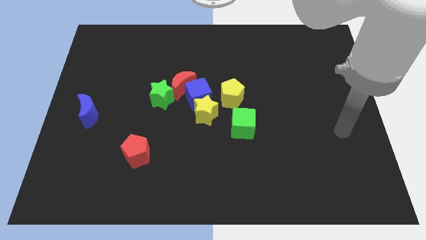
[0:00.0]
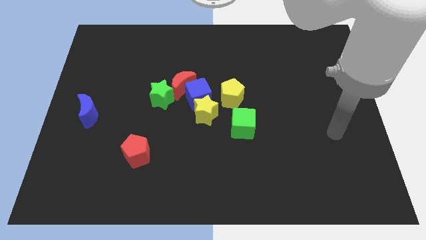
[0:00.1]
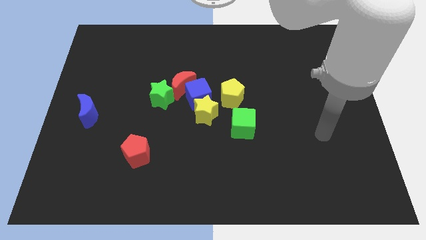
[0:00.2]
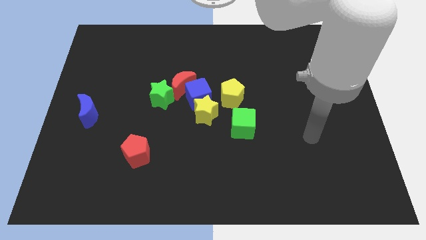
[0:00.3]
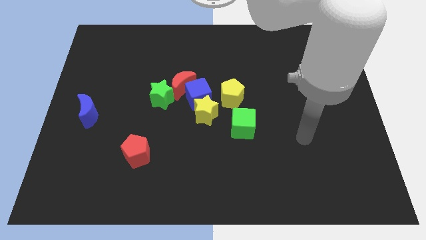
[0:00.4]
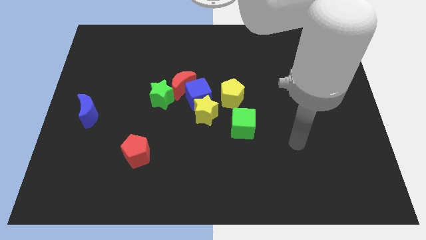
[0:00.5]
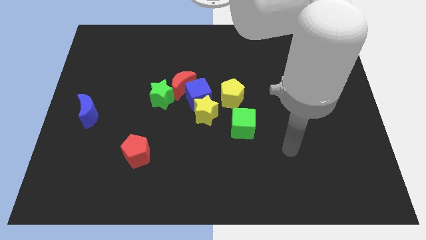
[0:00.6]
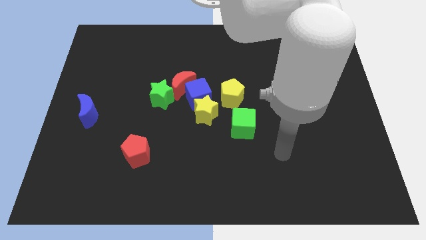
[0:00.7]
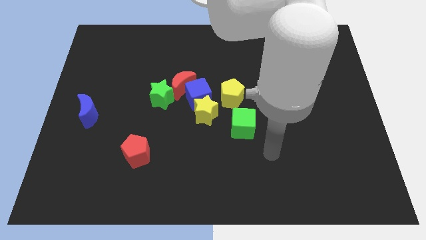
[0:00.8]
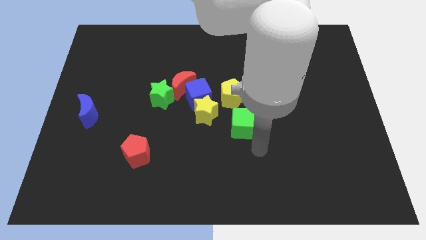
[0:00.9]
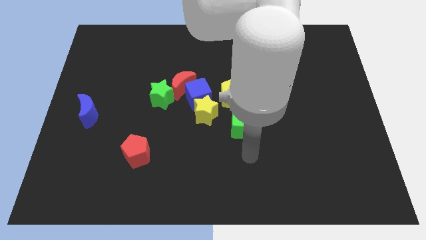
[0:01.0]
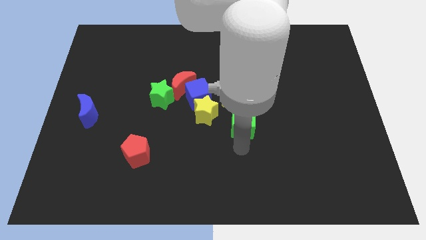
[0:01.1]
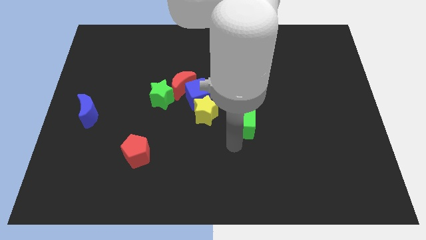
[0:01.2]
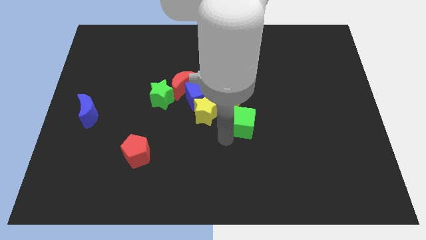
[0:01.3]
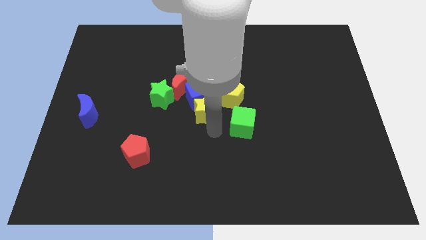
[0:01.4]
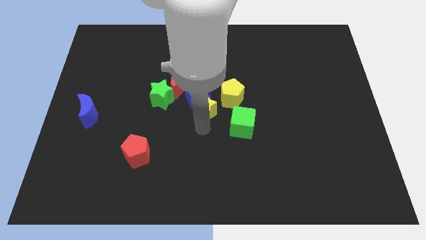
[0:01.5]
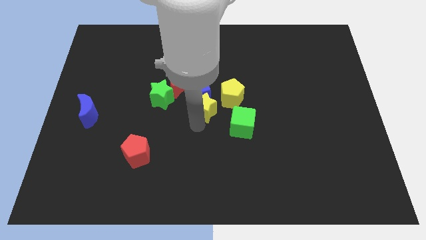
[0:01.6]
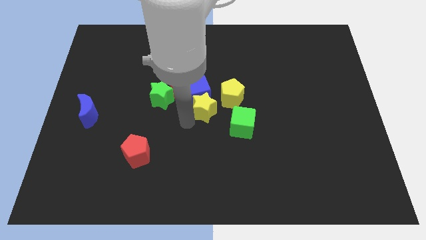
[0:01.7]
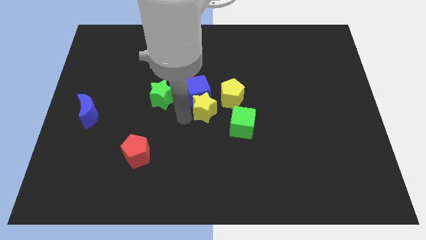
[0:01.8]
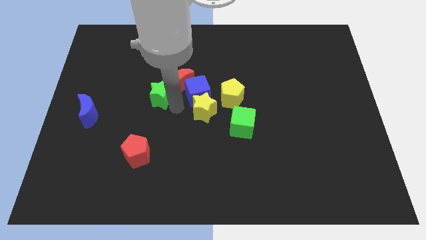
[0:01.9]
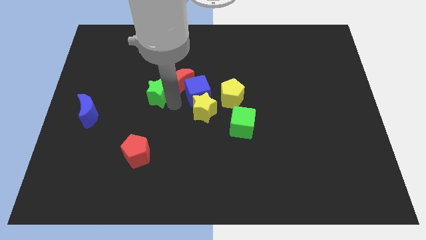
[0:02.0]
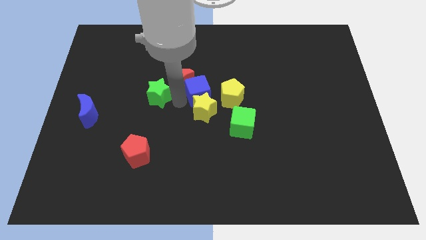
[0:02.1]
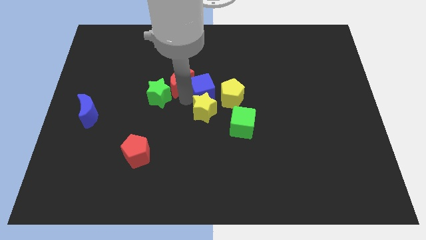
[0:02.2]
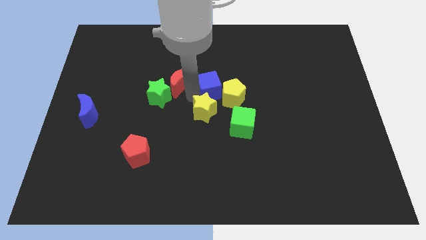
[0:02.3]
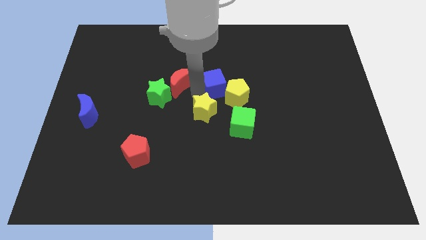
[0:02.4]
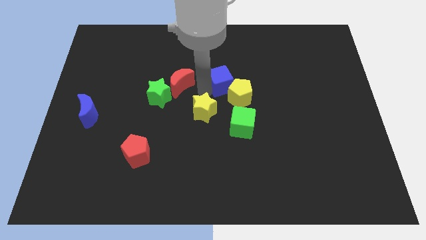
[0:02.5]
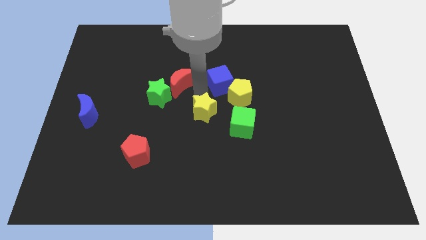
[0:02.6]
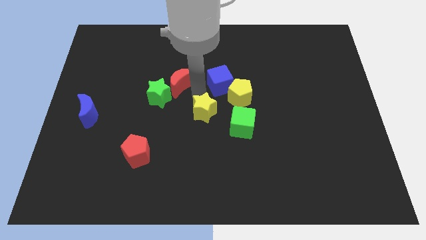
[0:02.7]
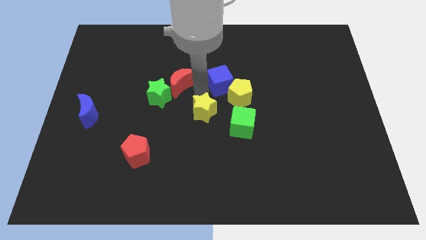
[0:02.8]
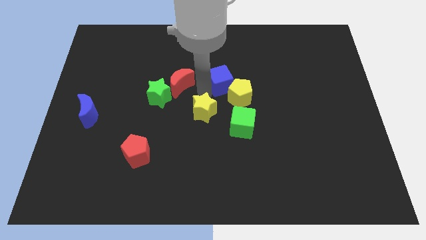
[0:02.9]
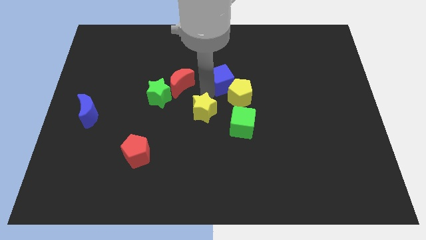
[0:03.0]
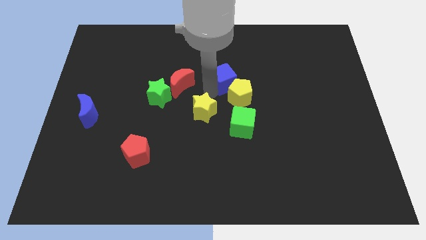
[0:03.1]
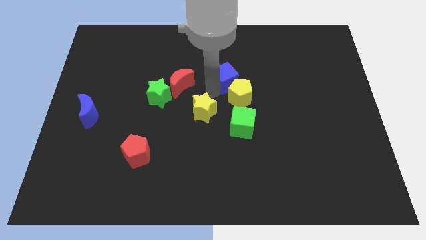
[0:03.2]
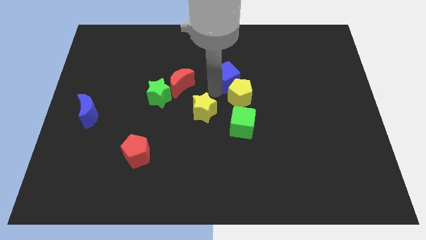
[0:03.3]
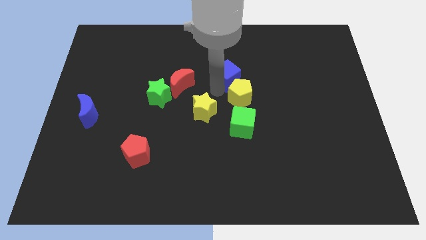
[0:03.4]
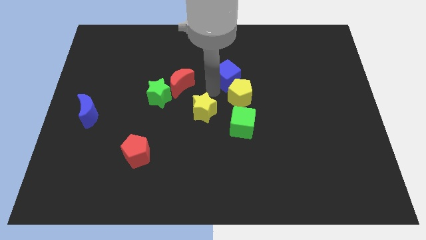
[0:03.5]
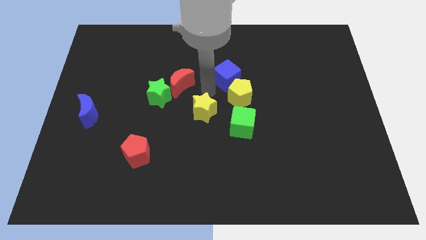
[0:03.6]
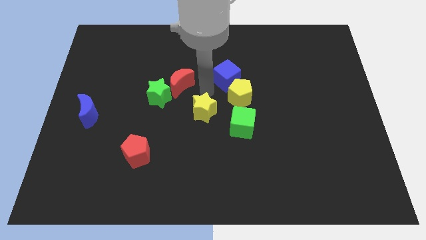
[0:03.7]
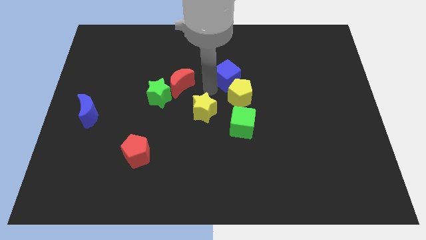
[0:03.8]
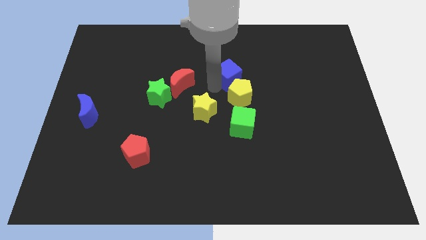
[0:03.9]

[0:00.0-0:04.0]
separate the blue cube from the group

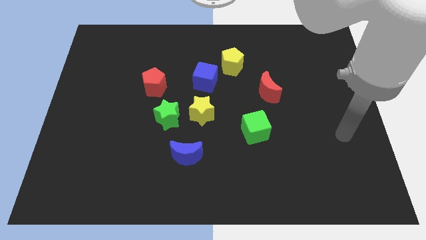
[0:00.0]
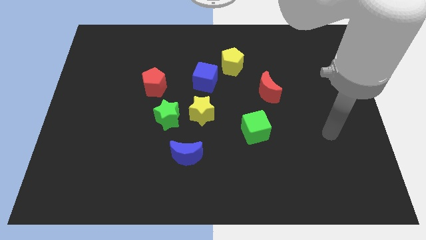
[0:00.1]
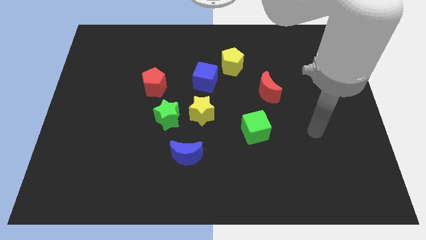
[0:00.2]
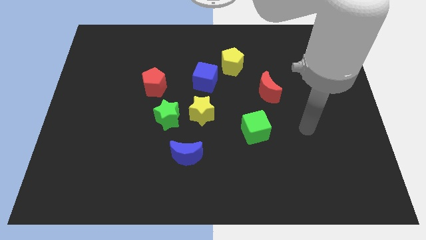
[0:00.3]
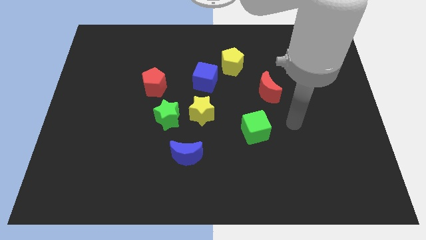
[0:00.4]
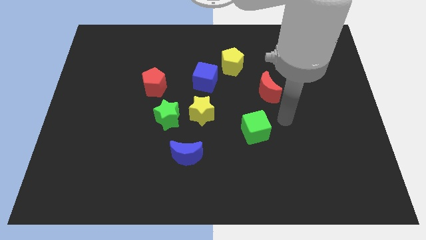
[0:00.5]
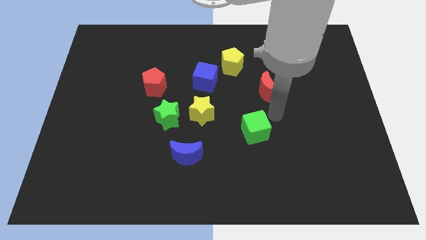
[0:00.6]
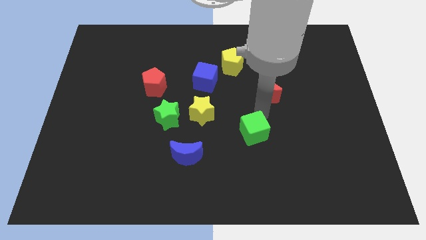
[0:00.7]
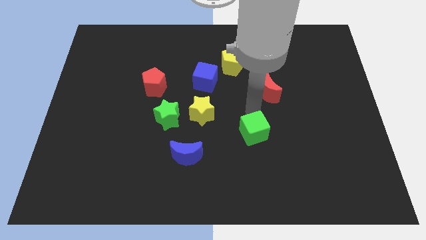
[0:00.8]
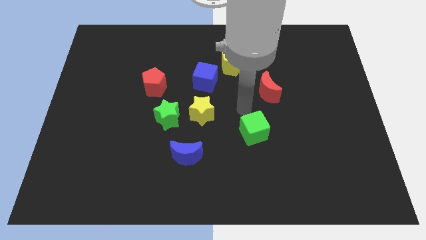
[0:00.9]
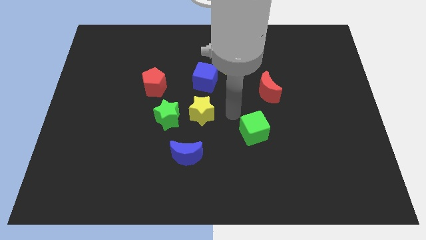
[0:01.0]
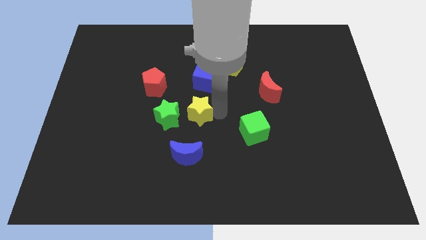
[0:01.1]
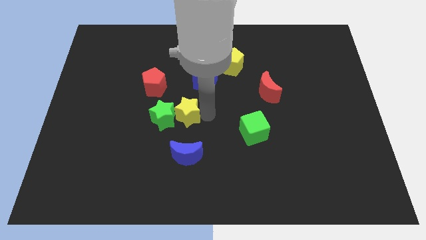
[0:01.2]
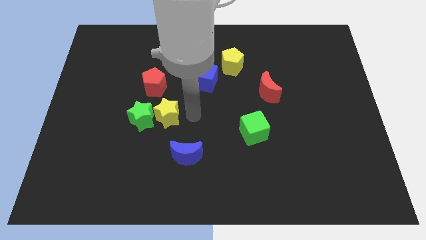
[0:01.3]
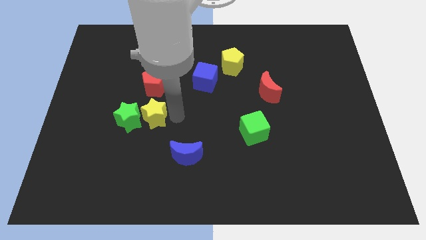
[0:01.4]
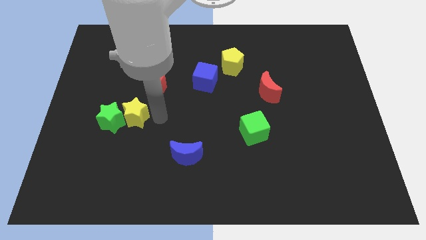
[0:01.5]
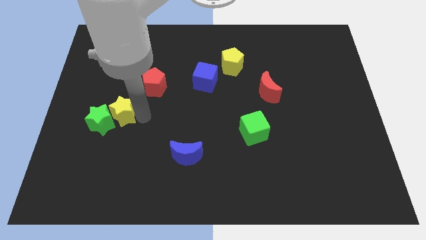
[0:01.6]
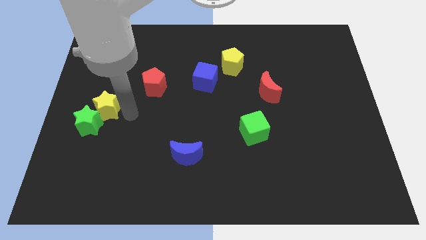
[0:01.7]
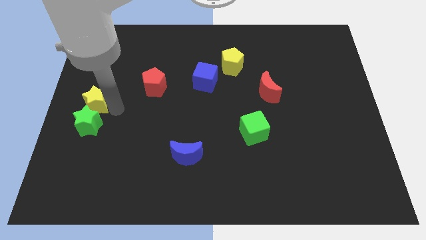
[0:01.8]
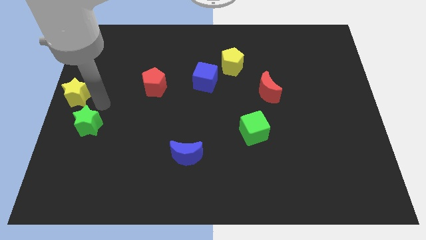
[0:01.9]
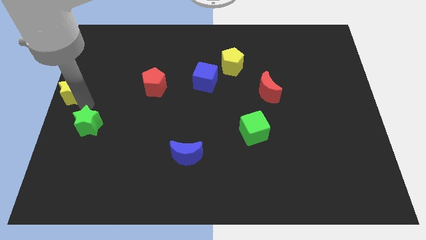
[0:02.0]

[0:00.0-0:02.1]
separate the green star from the yellow star

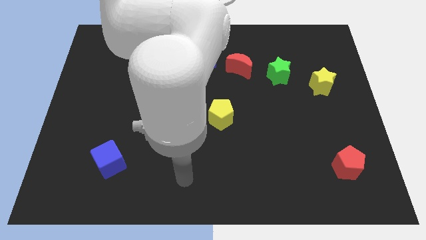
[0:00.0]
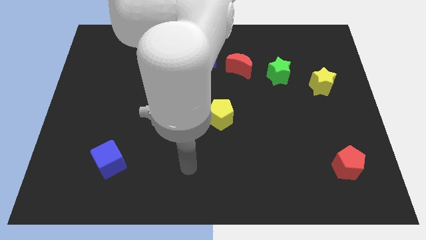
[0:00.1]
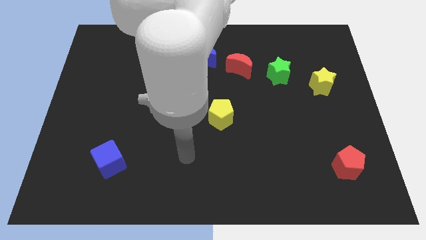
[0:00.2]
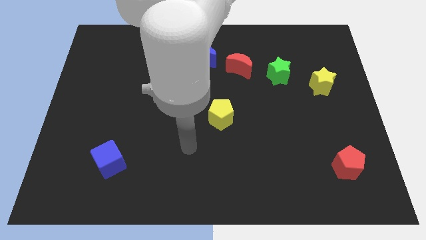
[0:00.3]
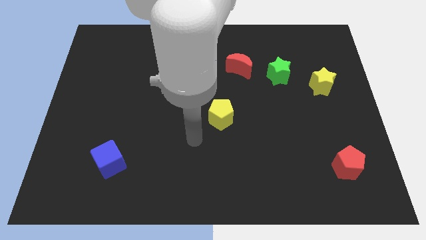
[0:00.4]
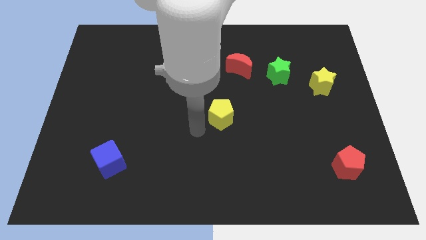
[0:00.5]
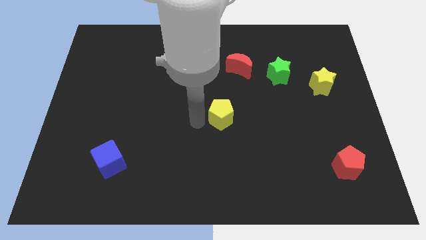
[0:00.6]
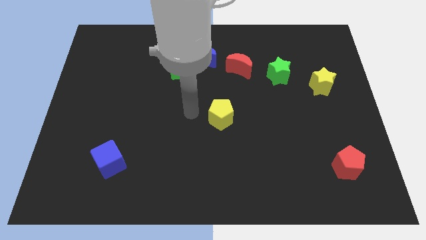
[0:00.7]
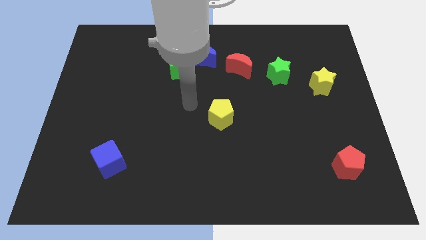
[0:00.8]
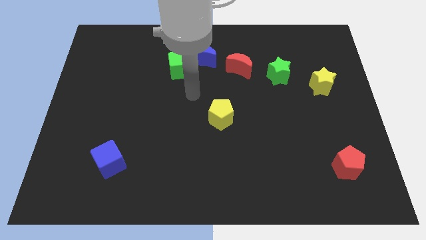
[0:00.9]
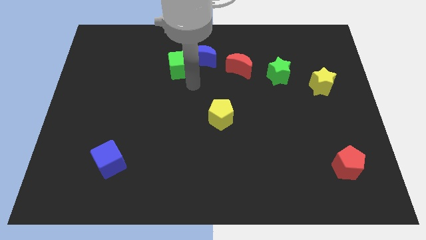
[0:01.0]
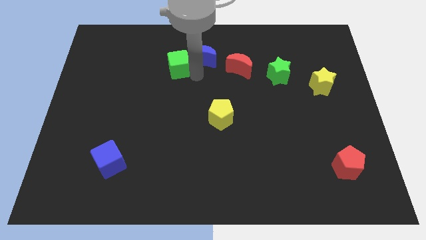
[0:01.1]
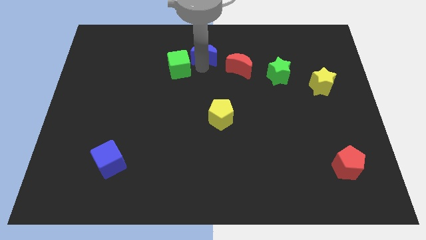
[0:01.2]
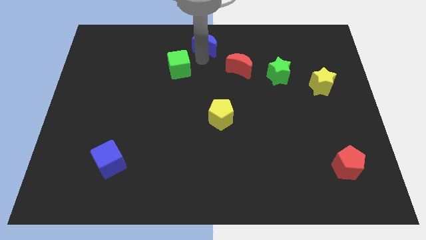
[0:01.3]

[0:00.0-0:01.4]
move the green cube away from the blue moon

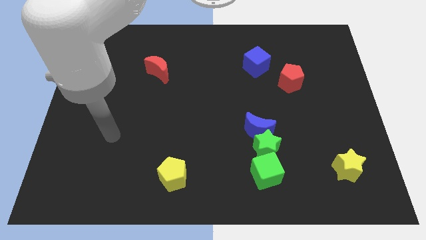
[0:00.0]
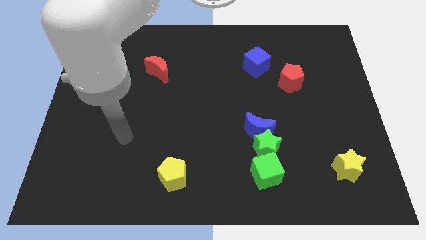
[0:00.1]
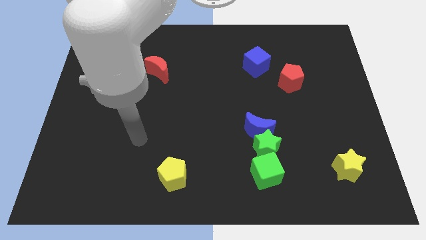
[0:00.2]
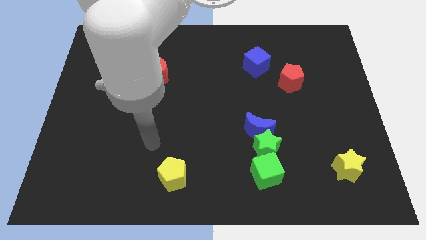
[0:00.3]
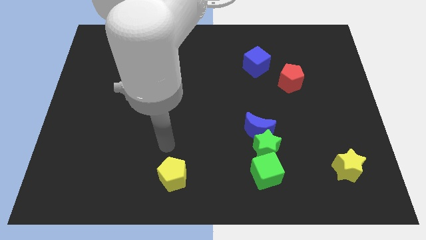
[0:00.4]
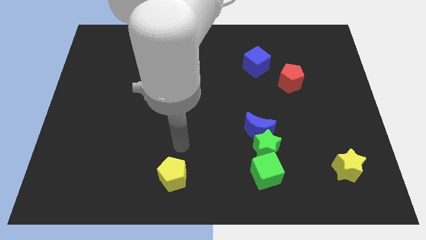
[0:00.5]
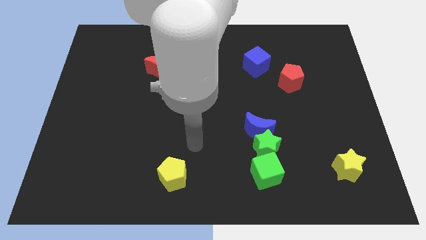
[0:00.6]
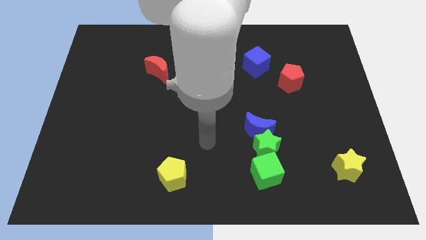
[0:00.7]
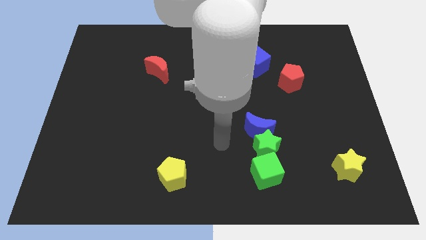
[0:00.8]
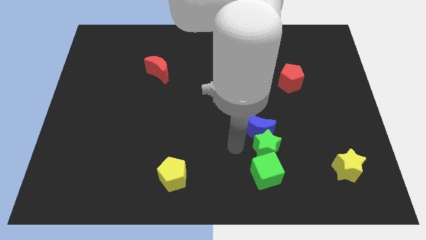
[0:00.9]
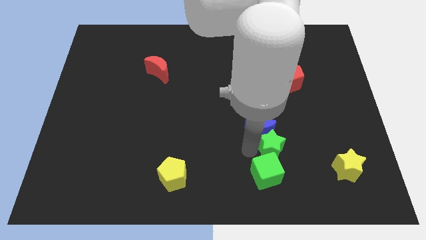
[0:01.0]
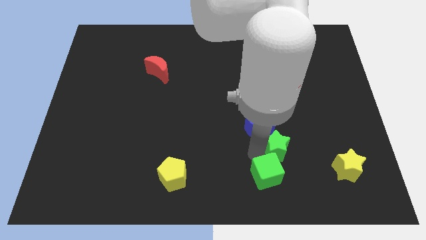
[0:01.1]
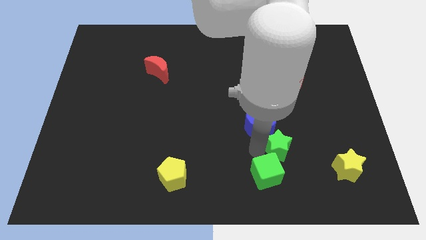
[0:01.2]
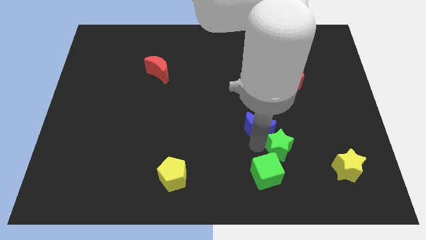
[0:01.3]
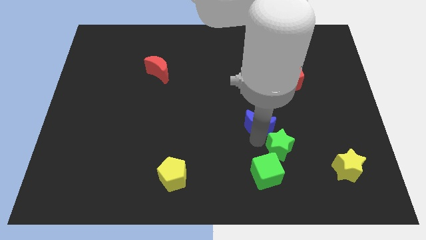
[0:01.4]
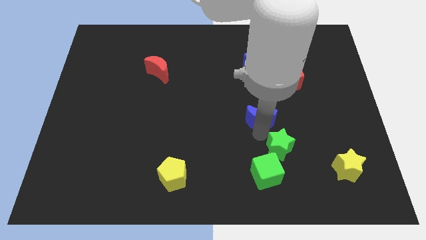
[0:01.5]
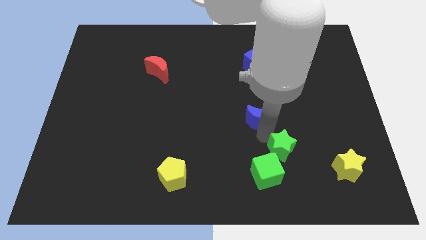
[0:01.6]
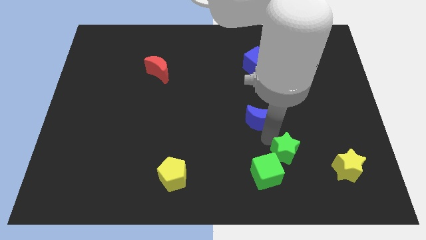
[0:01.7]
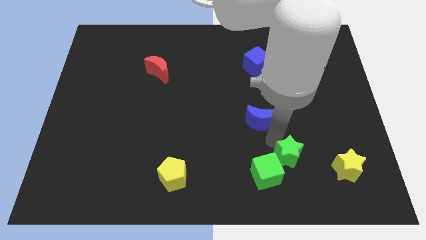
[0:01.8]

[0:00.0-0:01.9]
pull the blue moon apart from the green star
